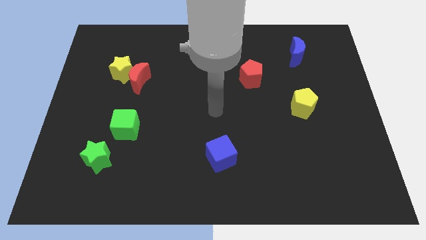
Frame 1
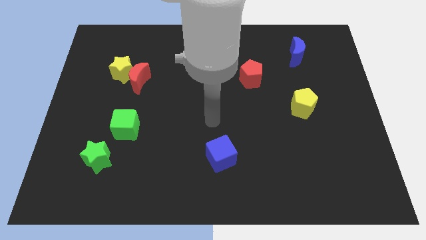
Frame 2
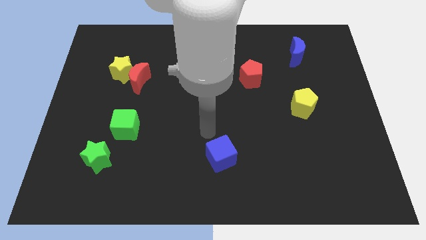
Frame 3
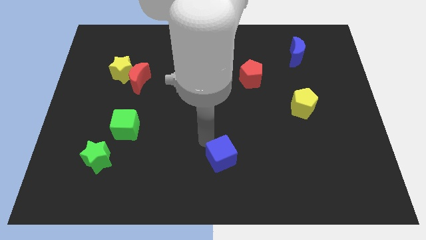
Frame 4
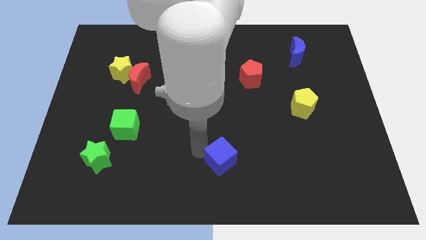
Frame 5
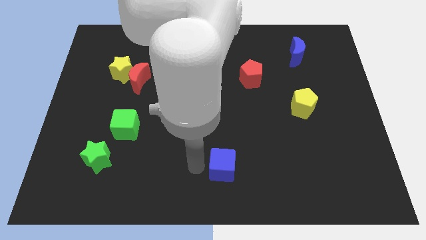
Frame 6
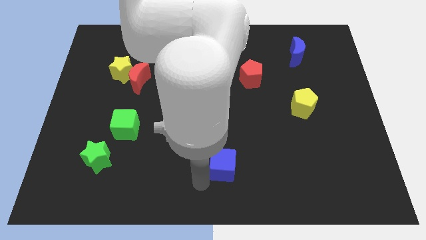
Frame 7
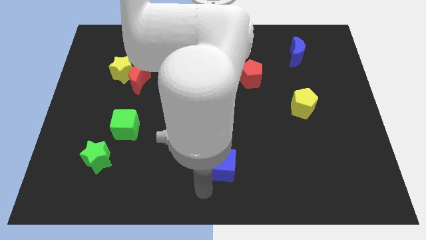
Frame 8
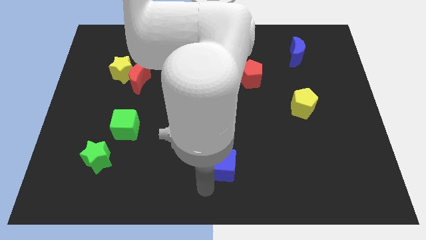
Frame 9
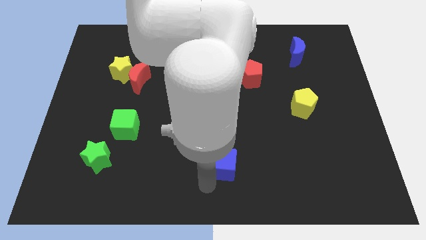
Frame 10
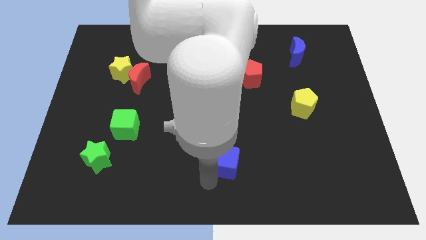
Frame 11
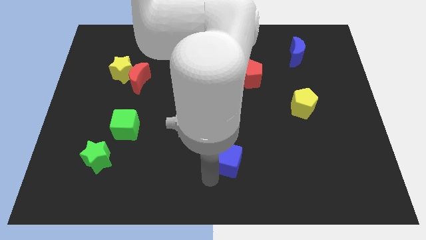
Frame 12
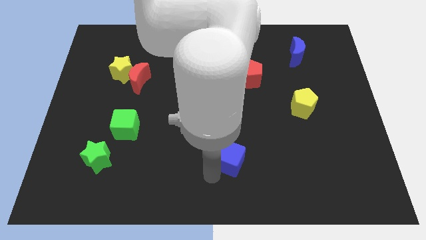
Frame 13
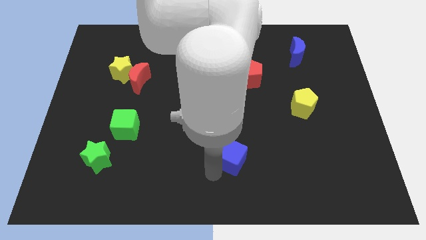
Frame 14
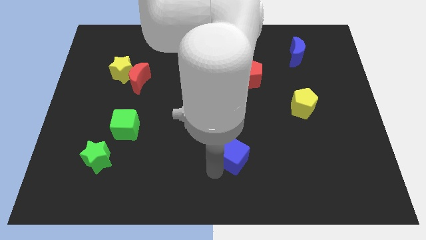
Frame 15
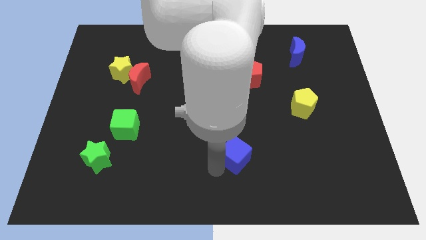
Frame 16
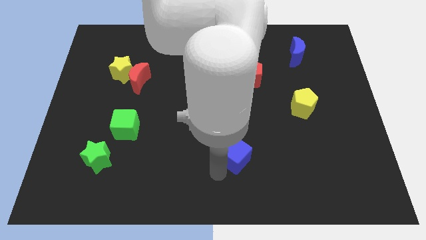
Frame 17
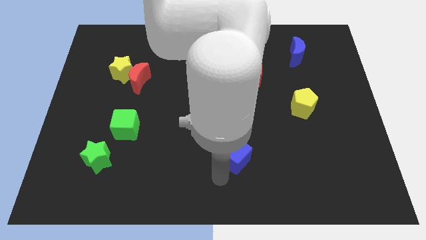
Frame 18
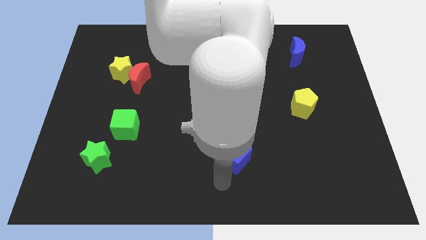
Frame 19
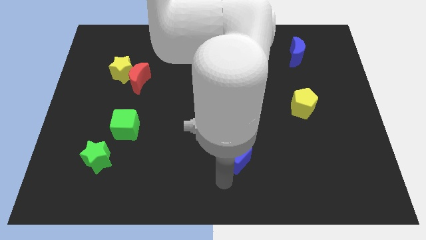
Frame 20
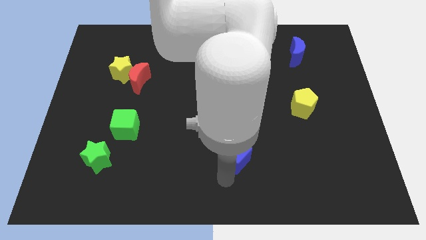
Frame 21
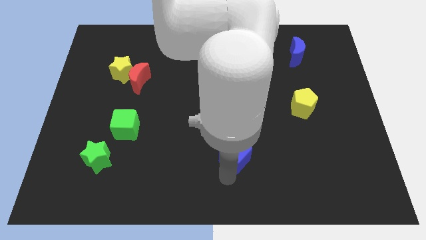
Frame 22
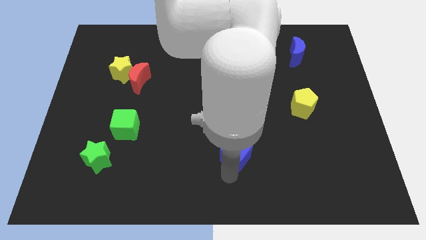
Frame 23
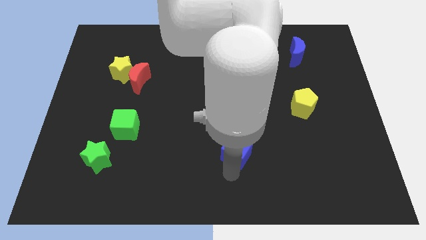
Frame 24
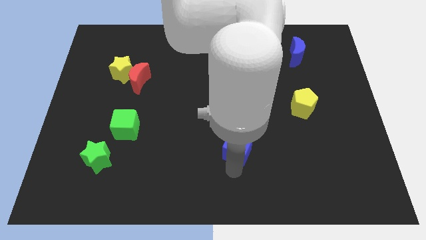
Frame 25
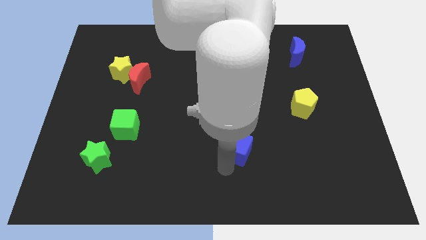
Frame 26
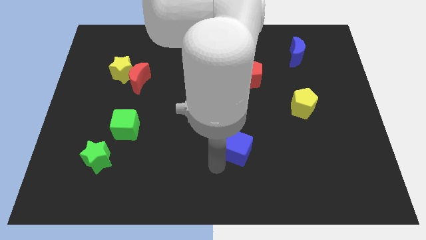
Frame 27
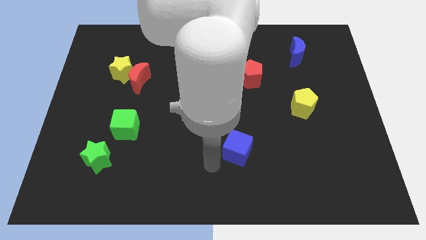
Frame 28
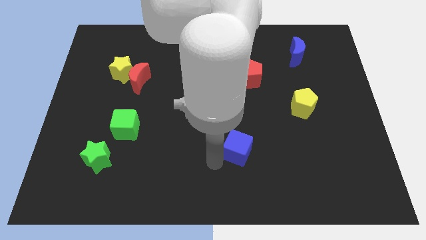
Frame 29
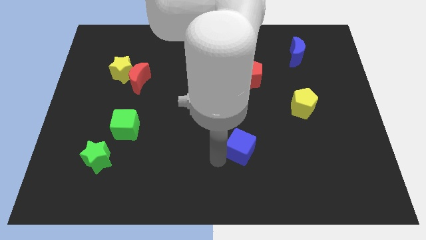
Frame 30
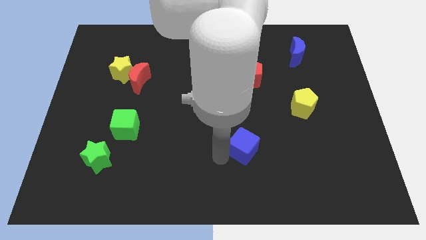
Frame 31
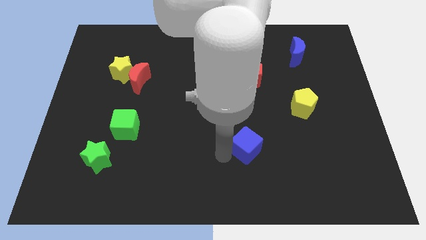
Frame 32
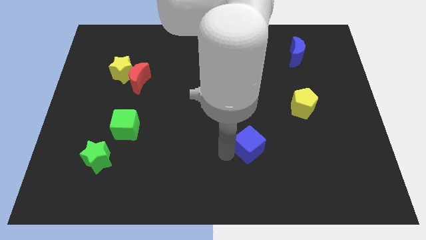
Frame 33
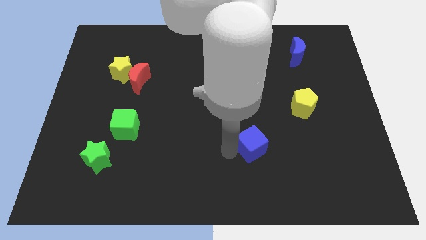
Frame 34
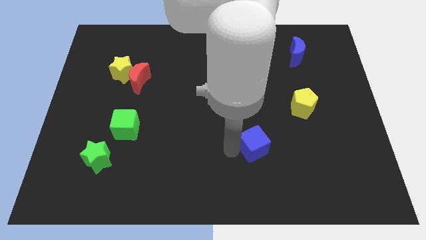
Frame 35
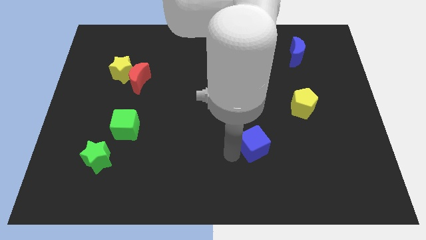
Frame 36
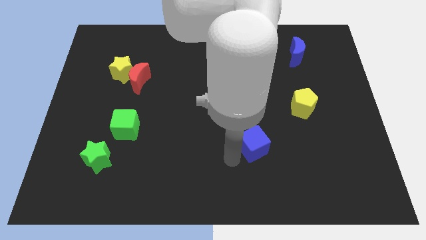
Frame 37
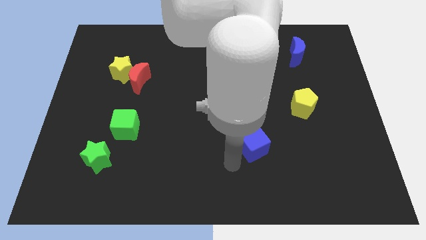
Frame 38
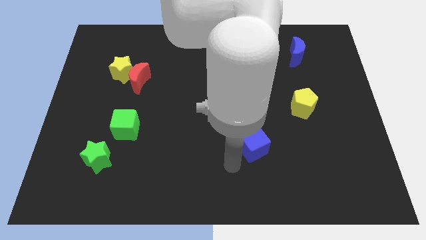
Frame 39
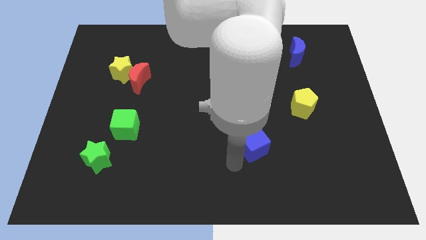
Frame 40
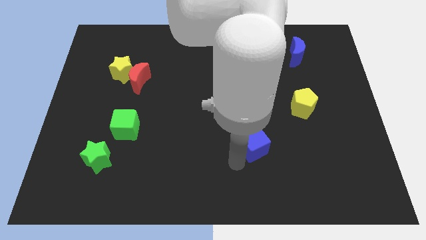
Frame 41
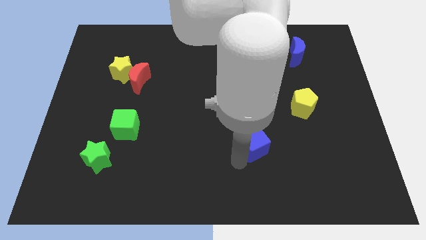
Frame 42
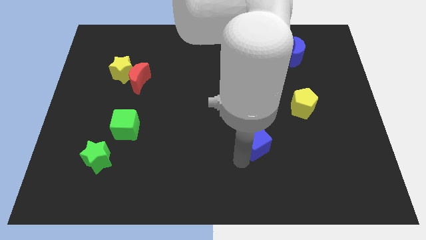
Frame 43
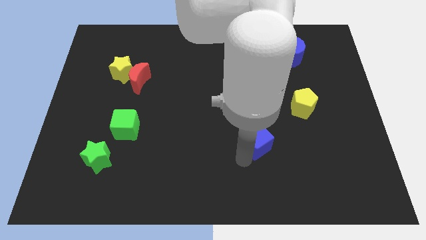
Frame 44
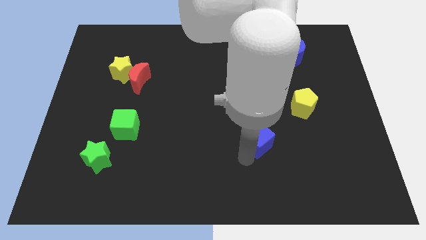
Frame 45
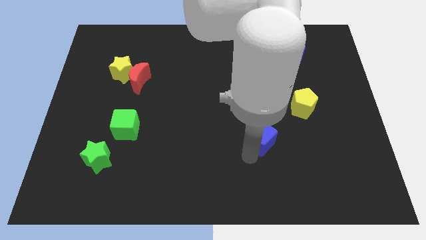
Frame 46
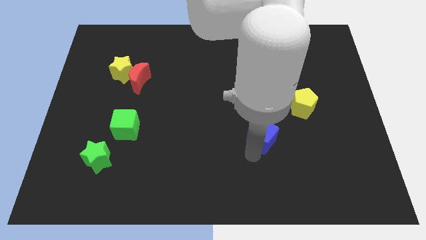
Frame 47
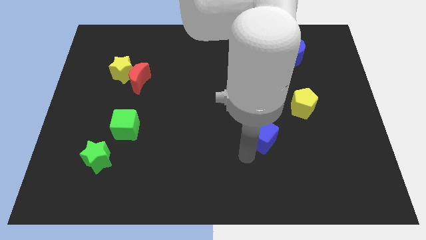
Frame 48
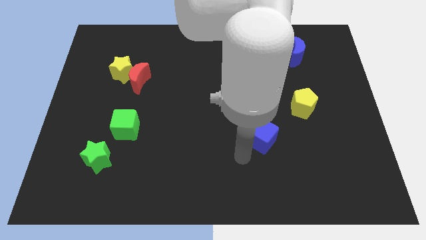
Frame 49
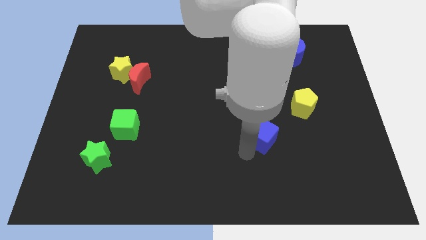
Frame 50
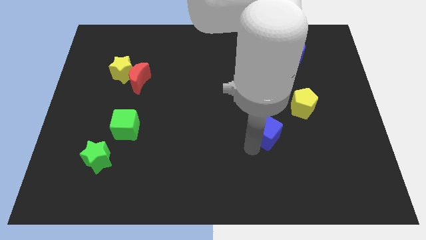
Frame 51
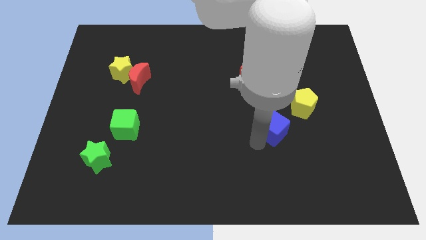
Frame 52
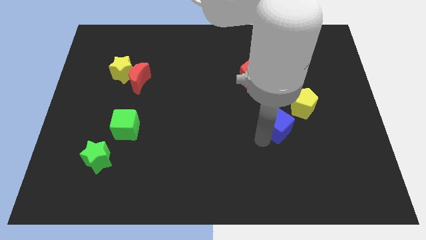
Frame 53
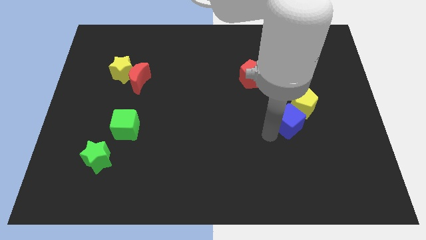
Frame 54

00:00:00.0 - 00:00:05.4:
push the blue cube to the yellow pentagon

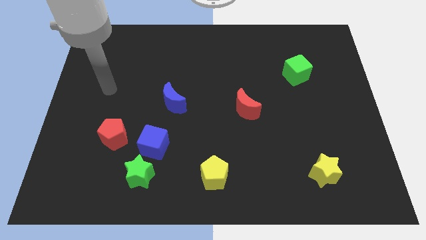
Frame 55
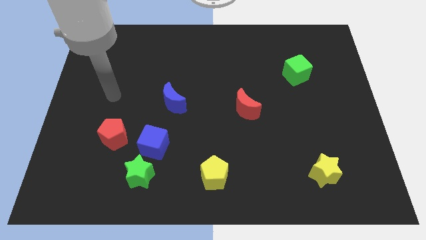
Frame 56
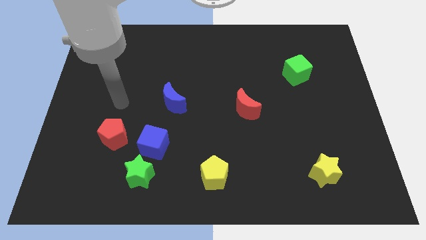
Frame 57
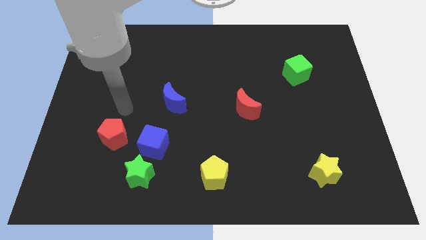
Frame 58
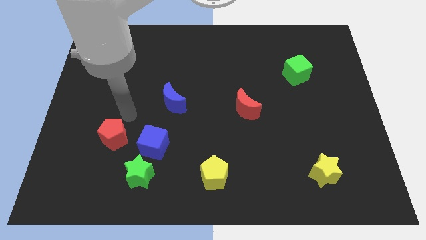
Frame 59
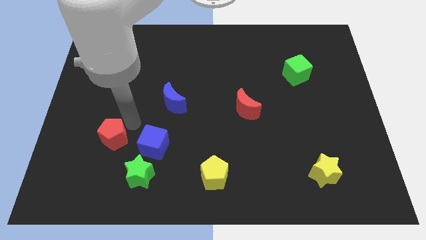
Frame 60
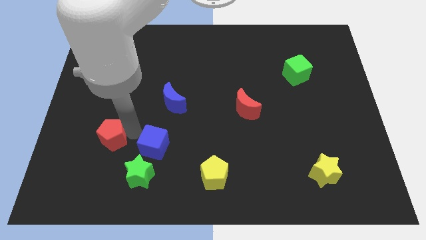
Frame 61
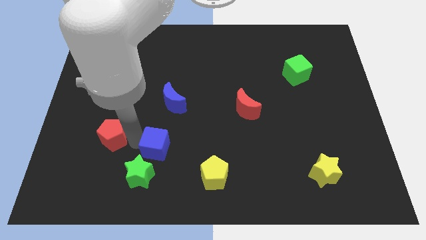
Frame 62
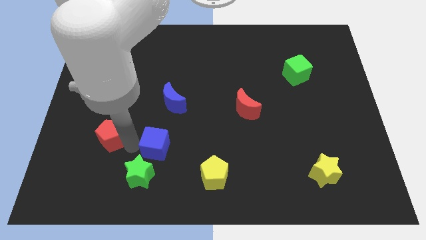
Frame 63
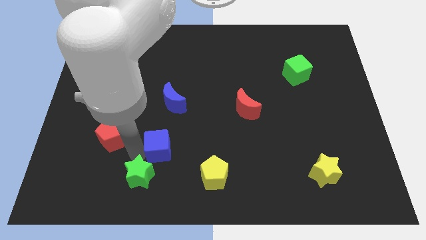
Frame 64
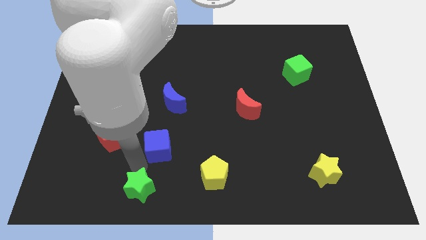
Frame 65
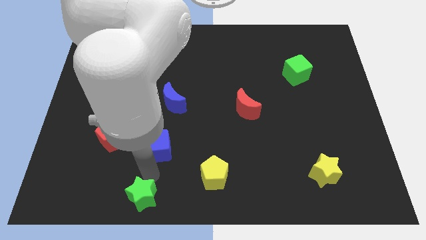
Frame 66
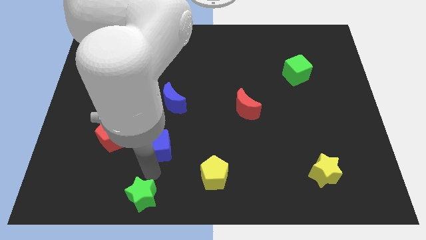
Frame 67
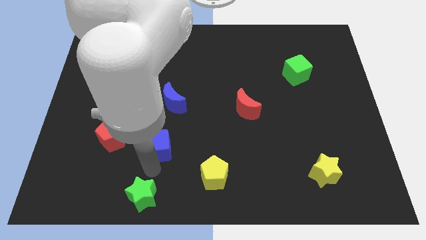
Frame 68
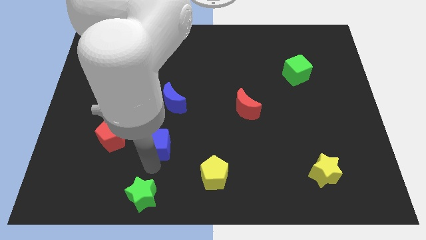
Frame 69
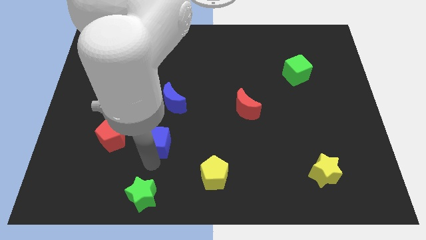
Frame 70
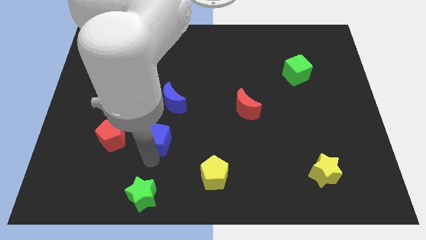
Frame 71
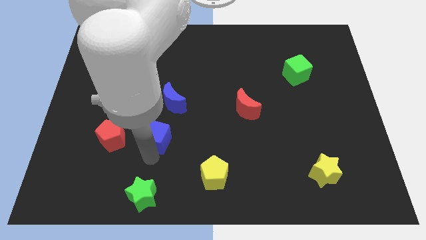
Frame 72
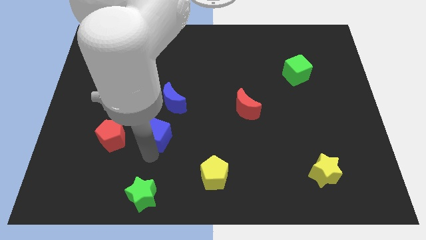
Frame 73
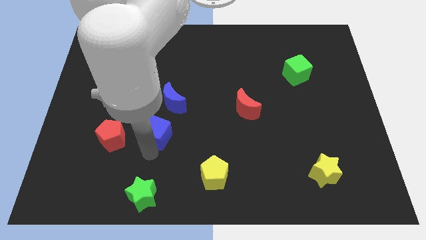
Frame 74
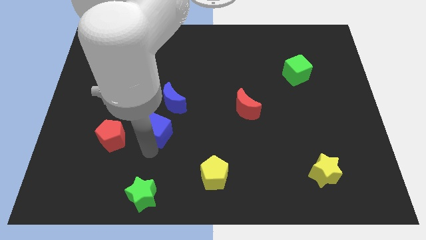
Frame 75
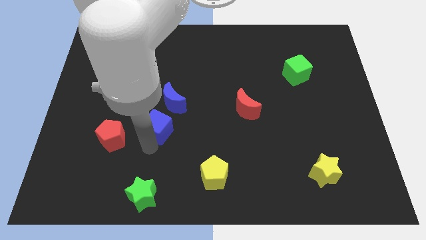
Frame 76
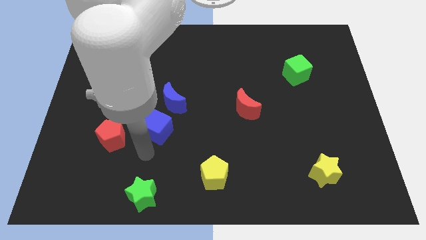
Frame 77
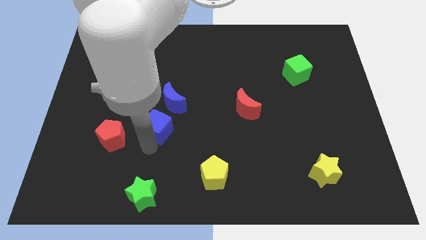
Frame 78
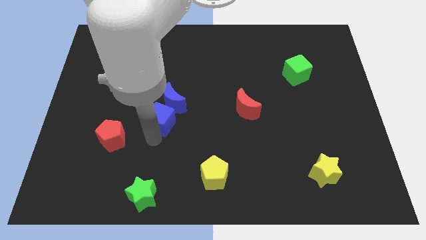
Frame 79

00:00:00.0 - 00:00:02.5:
move the blue cube close to the blue moon

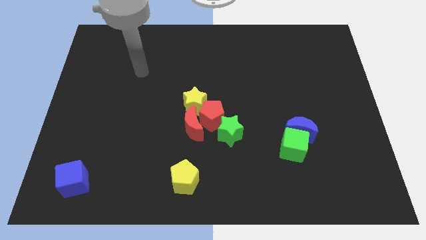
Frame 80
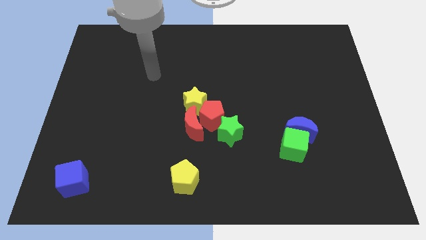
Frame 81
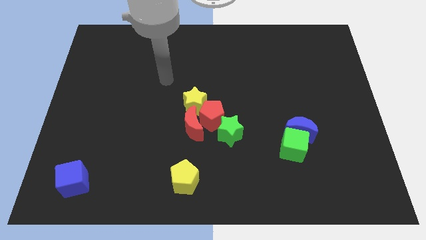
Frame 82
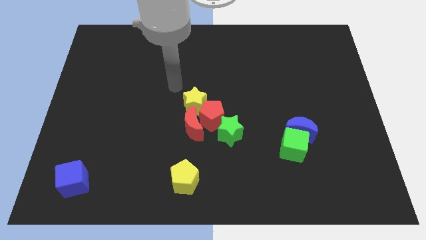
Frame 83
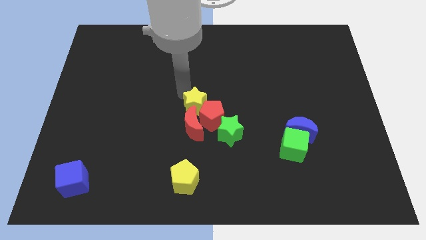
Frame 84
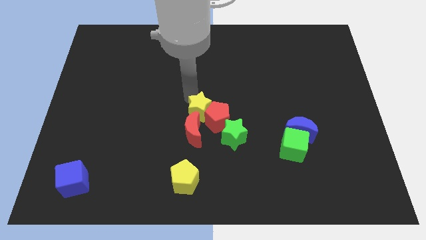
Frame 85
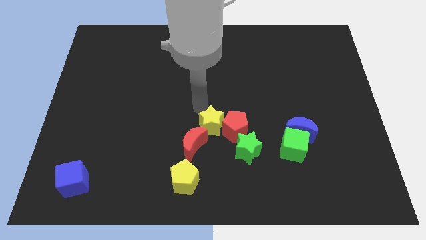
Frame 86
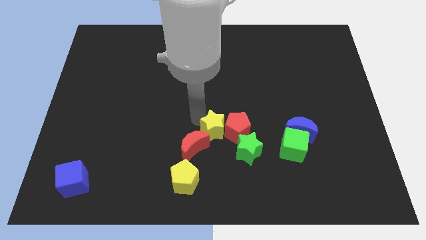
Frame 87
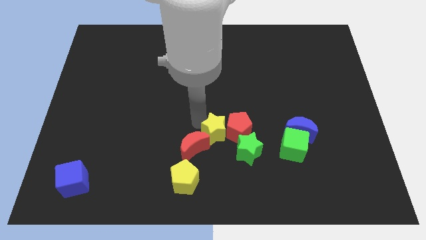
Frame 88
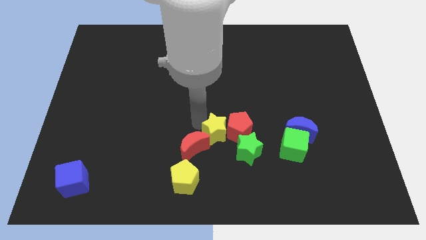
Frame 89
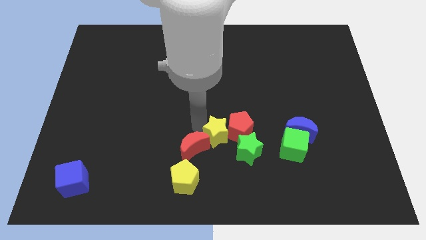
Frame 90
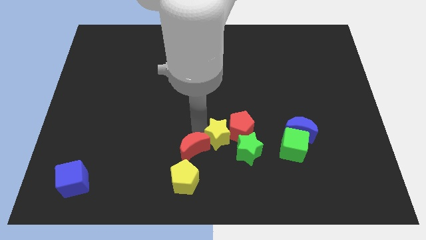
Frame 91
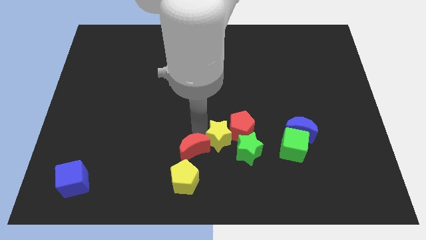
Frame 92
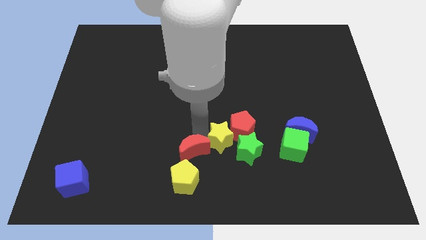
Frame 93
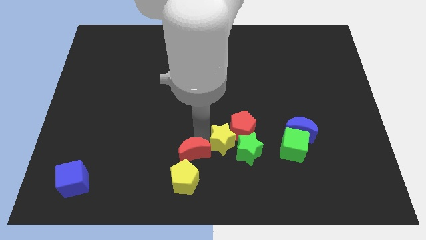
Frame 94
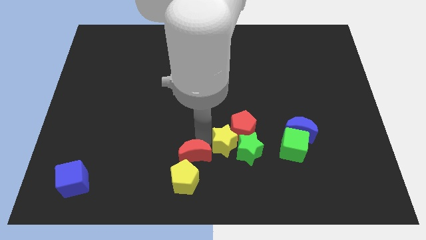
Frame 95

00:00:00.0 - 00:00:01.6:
push the red moon next to the yellow pentagon
